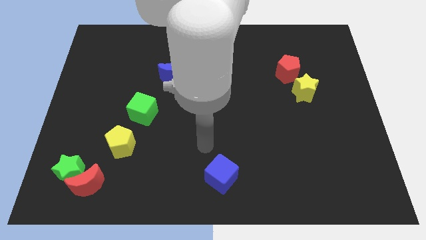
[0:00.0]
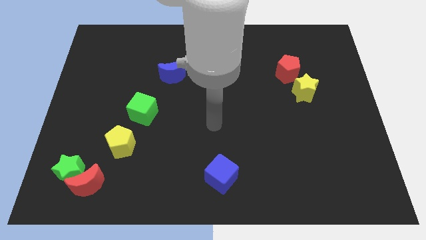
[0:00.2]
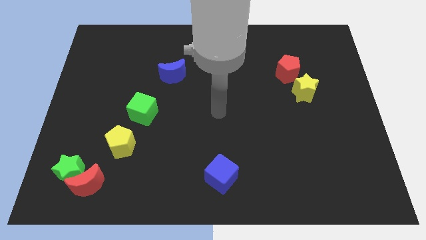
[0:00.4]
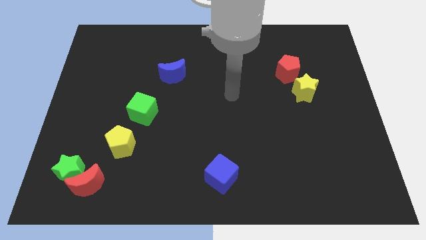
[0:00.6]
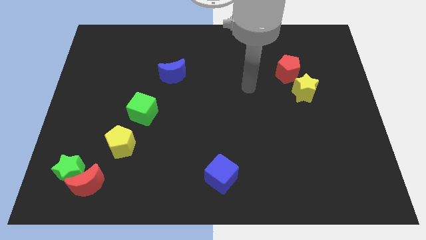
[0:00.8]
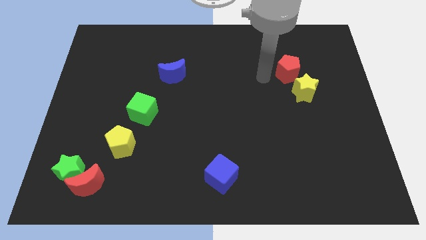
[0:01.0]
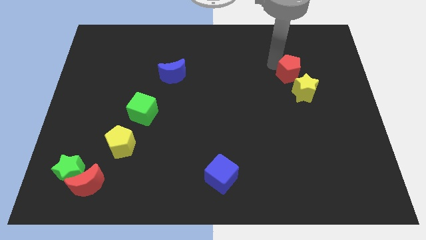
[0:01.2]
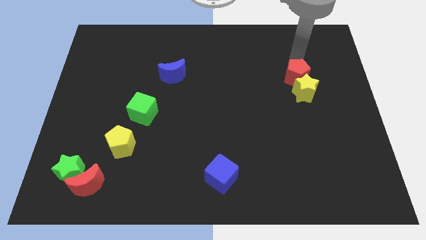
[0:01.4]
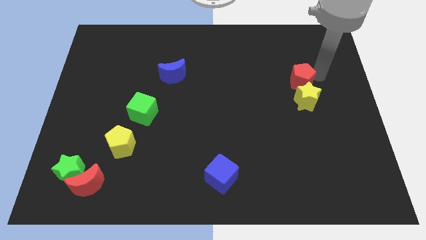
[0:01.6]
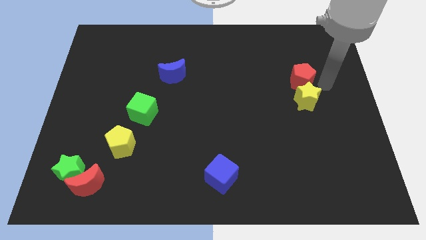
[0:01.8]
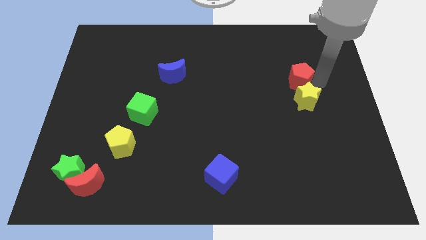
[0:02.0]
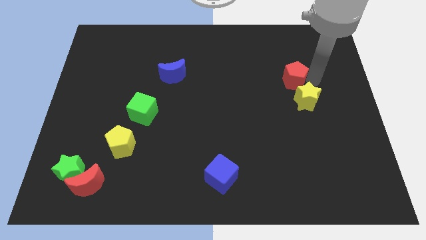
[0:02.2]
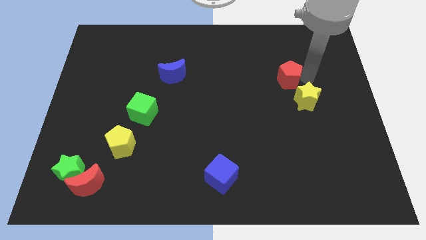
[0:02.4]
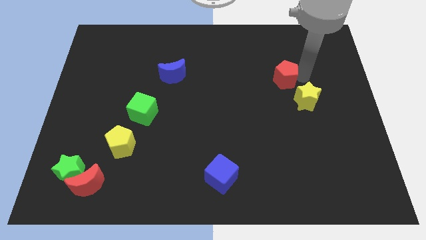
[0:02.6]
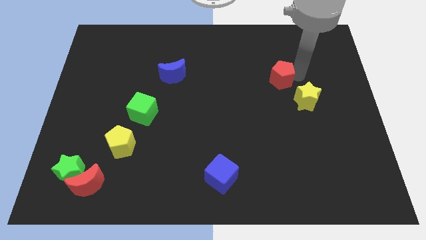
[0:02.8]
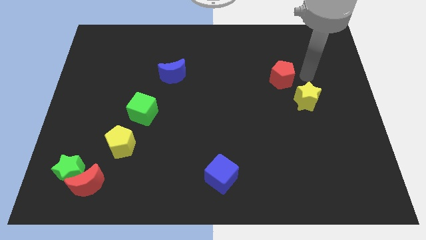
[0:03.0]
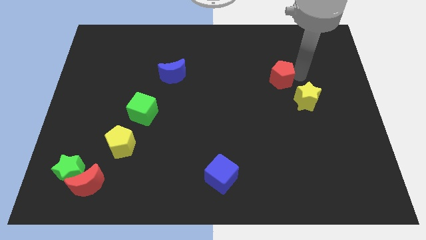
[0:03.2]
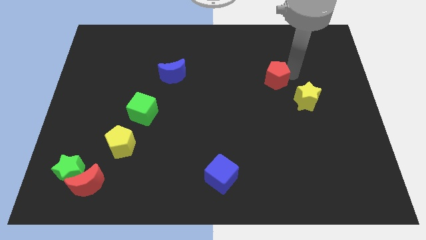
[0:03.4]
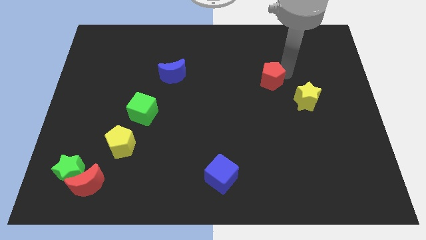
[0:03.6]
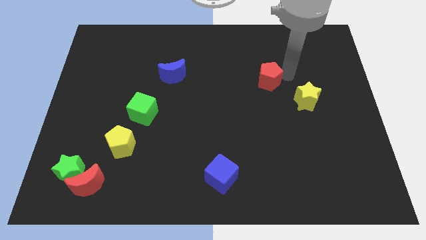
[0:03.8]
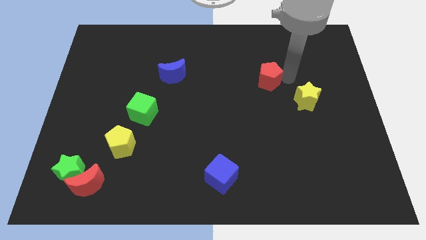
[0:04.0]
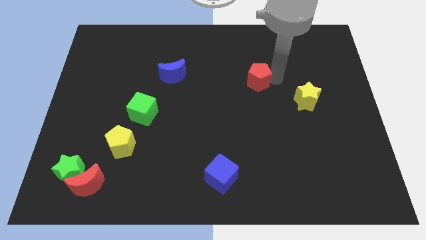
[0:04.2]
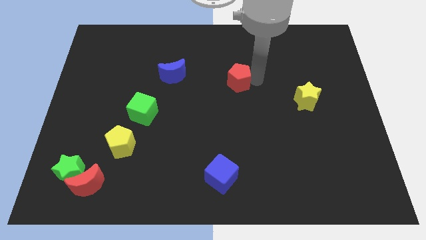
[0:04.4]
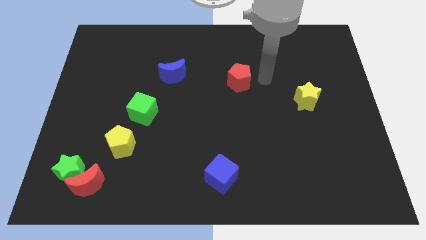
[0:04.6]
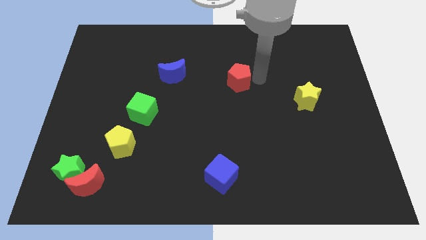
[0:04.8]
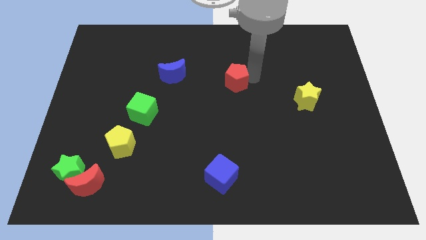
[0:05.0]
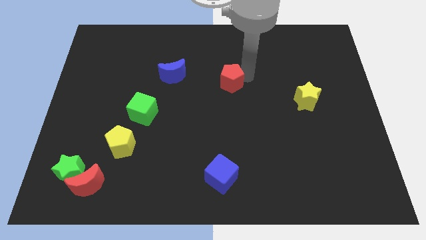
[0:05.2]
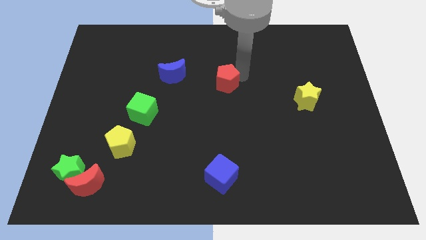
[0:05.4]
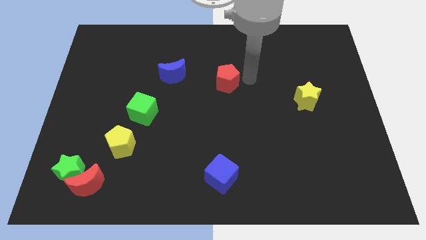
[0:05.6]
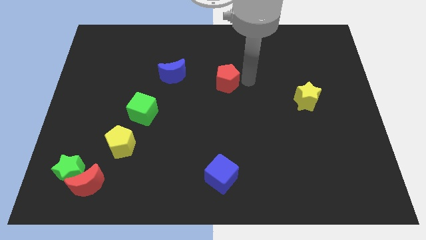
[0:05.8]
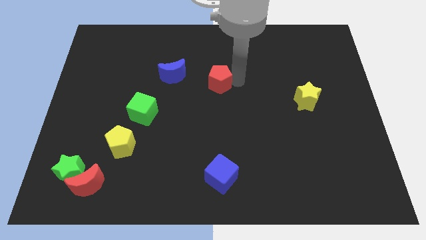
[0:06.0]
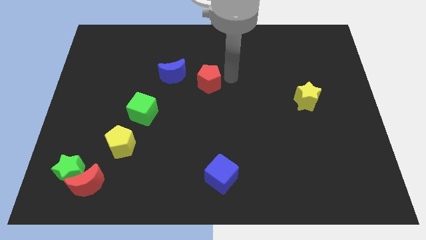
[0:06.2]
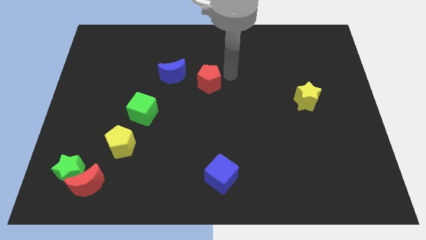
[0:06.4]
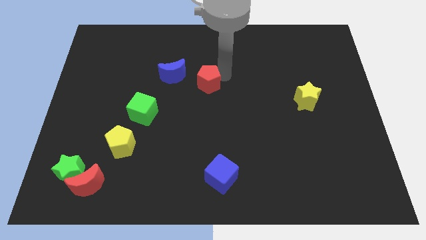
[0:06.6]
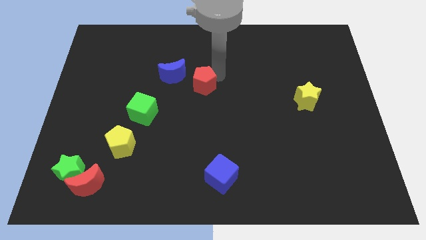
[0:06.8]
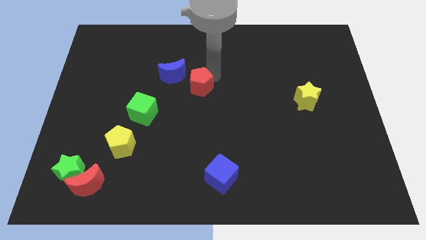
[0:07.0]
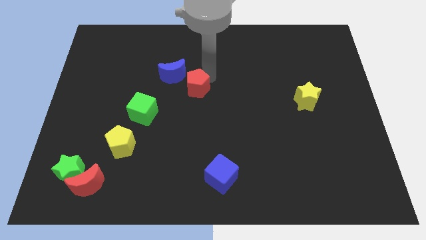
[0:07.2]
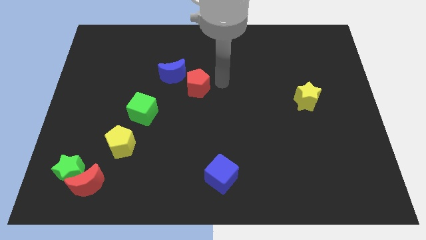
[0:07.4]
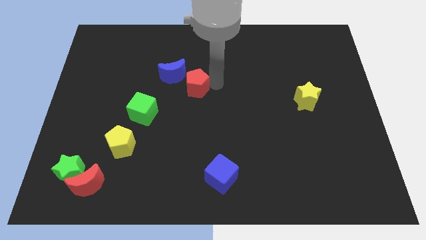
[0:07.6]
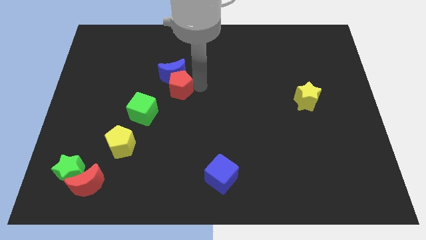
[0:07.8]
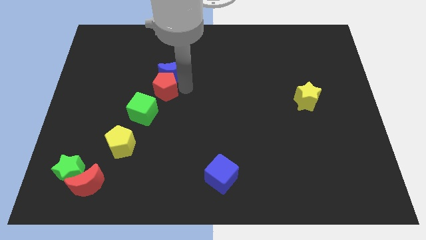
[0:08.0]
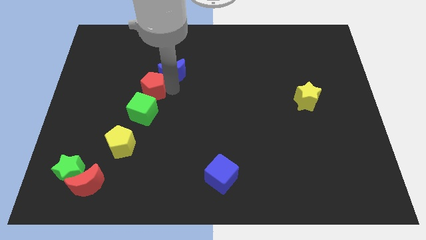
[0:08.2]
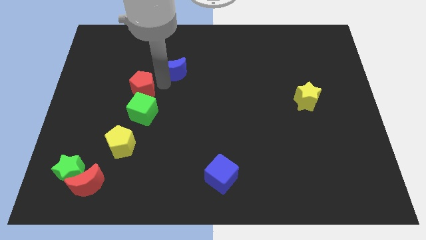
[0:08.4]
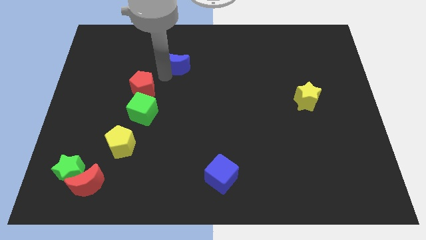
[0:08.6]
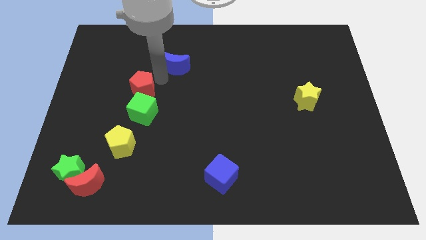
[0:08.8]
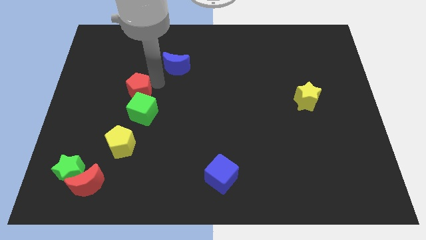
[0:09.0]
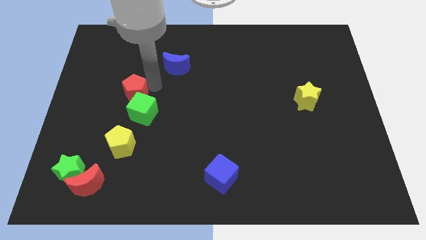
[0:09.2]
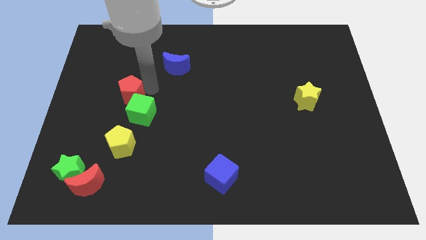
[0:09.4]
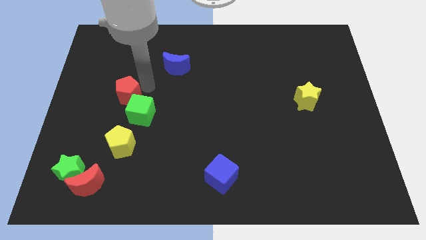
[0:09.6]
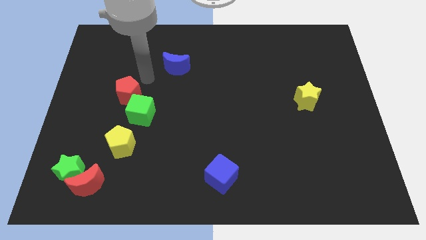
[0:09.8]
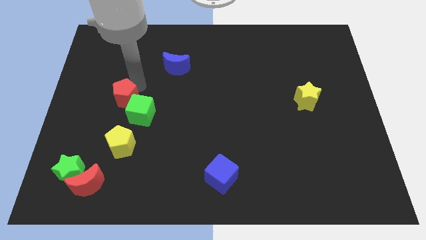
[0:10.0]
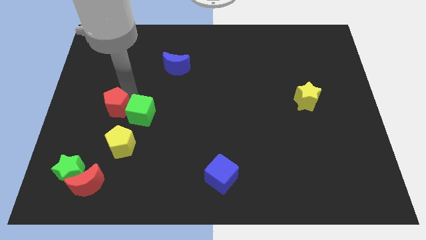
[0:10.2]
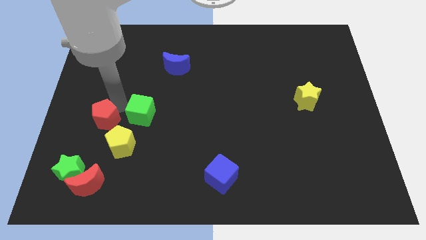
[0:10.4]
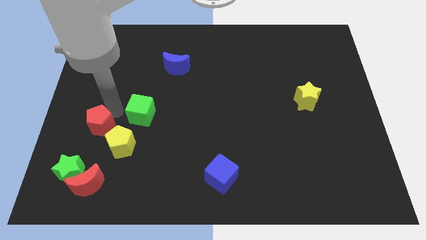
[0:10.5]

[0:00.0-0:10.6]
move the red pentagon to the top of the green star

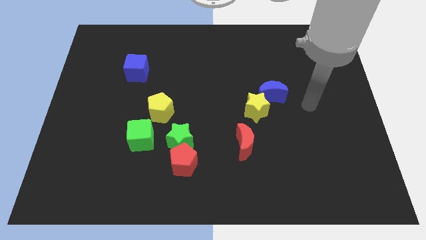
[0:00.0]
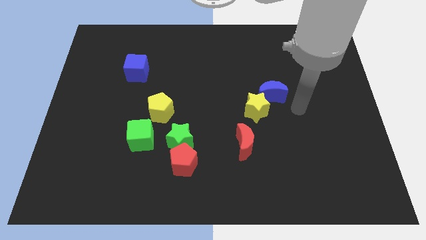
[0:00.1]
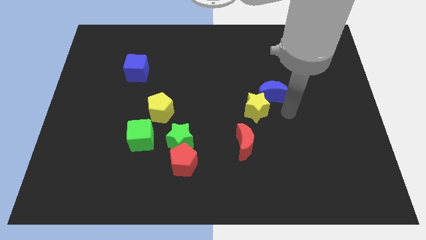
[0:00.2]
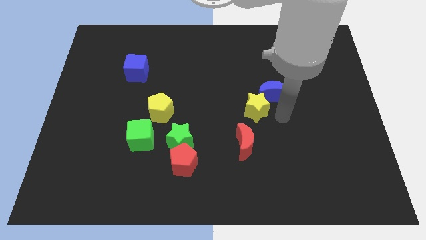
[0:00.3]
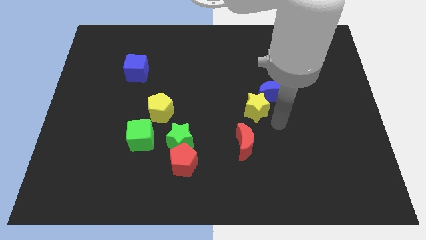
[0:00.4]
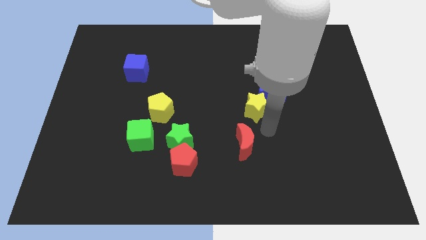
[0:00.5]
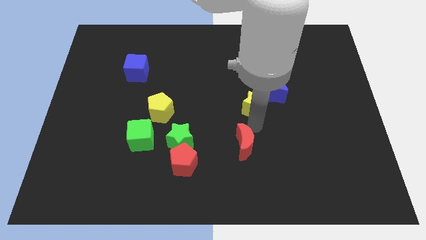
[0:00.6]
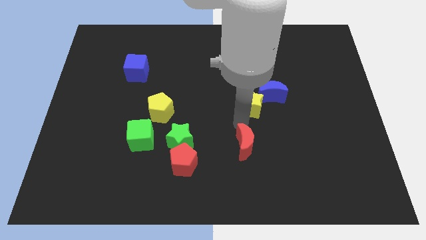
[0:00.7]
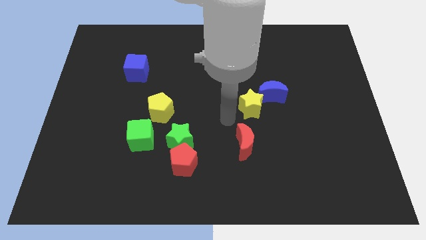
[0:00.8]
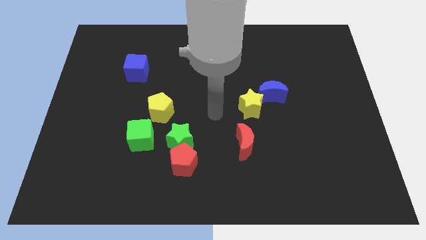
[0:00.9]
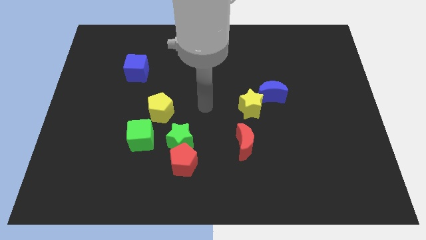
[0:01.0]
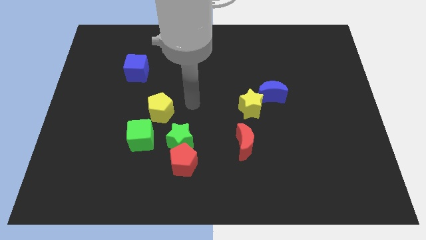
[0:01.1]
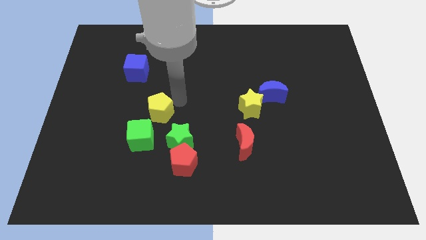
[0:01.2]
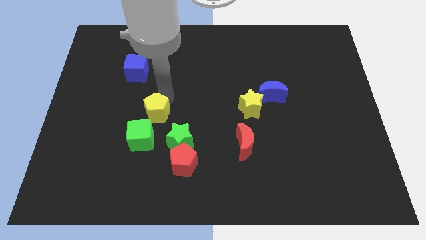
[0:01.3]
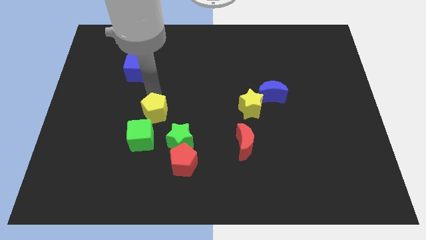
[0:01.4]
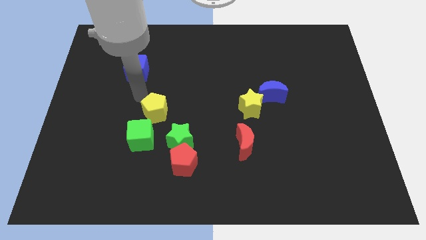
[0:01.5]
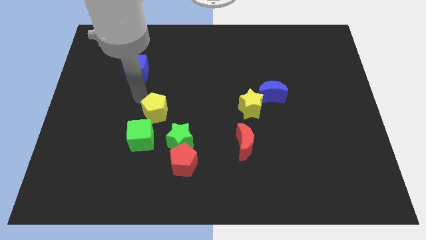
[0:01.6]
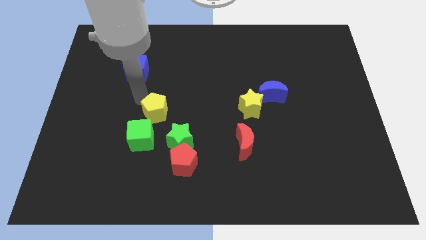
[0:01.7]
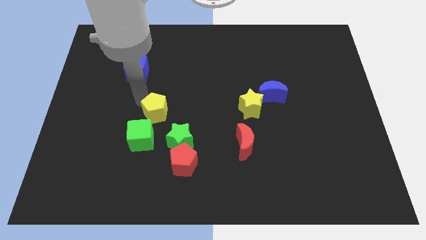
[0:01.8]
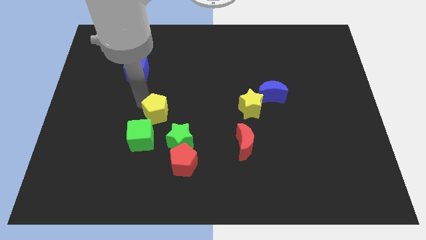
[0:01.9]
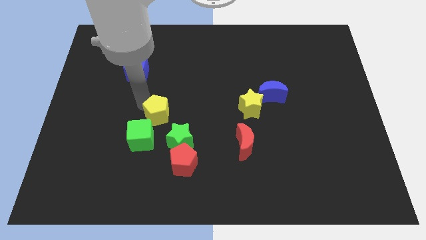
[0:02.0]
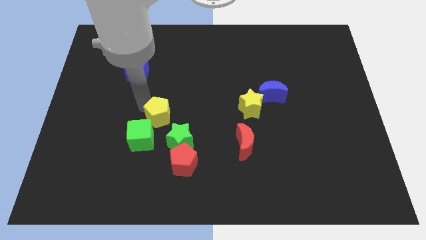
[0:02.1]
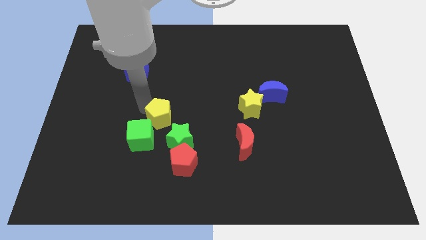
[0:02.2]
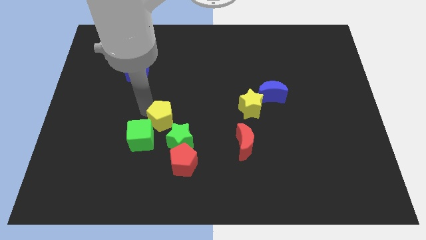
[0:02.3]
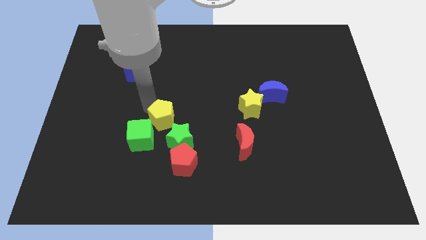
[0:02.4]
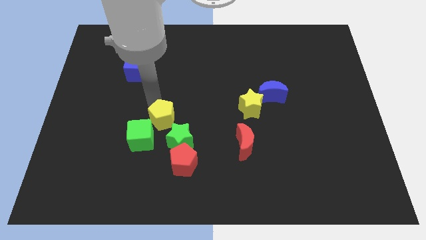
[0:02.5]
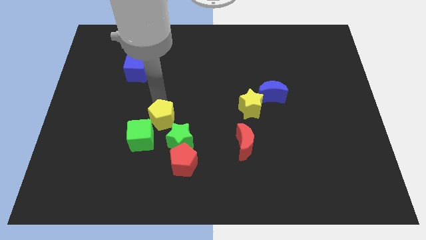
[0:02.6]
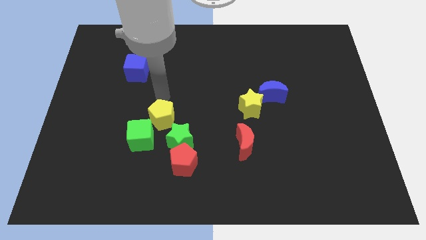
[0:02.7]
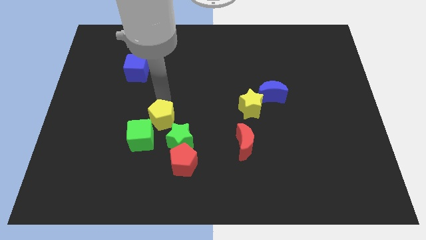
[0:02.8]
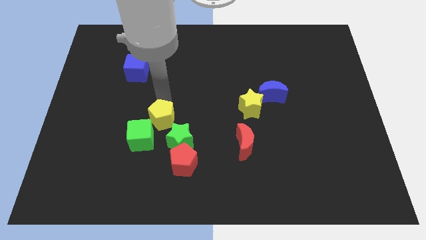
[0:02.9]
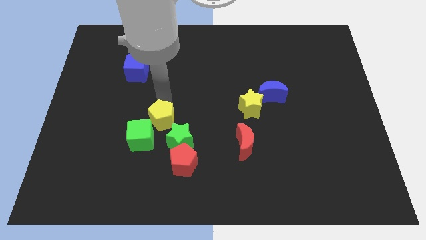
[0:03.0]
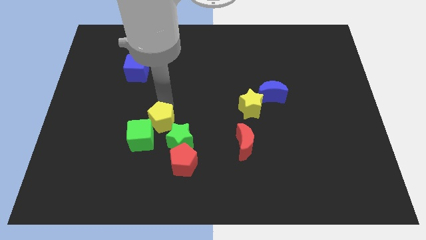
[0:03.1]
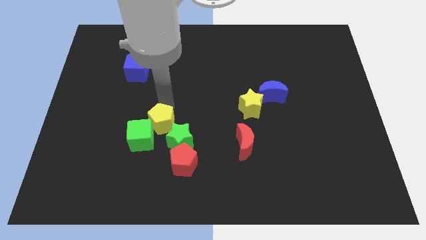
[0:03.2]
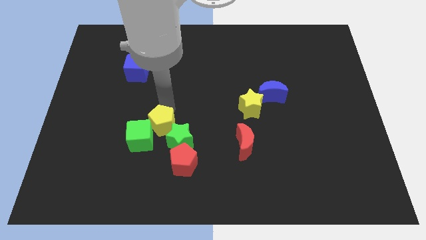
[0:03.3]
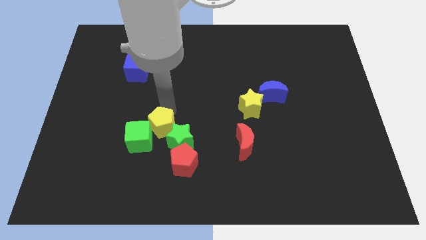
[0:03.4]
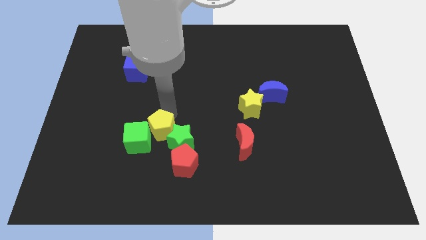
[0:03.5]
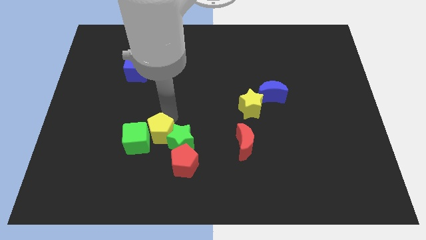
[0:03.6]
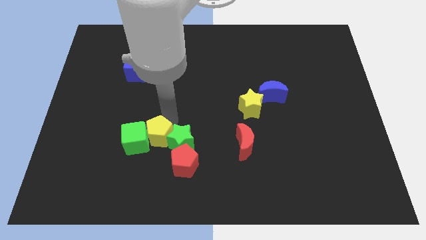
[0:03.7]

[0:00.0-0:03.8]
put the yellow pentagon to the bottom left of the green star
